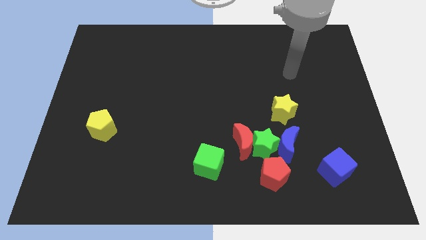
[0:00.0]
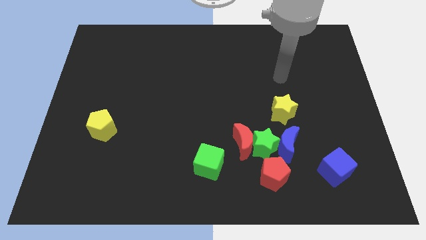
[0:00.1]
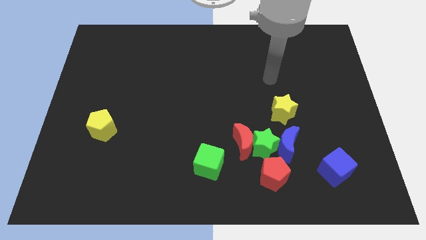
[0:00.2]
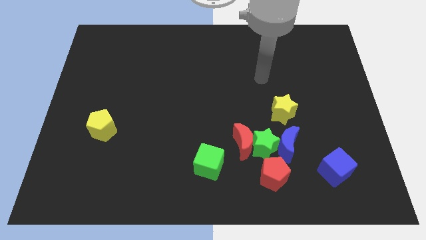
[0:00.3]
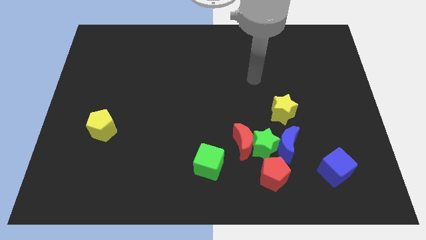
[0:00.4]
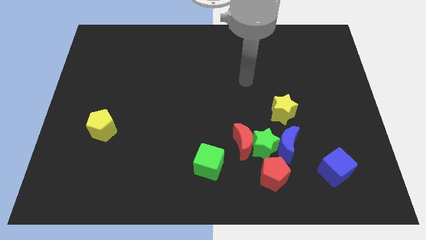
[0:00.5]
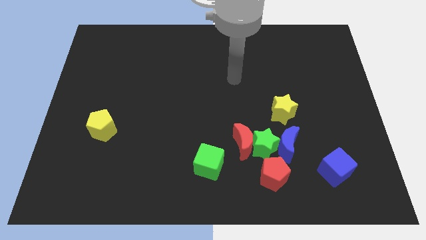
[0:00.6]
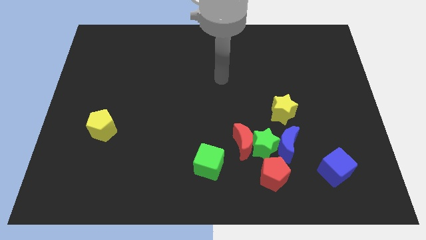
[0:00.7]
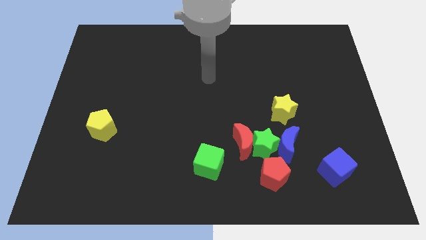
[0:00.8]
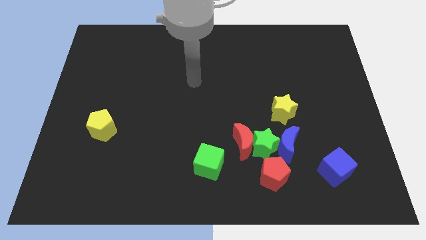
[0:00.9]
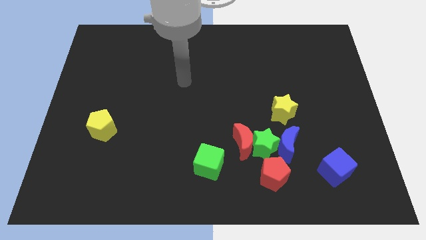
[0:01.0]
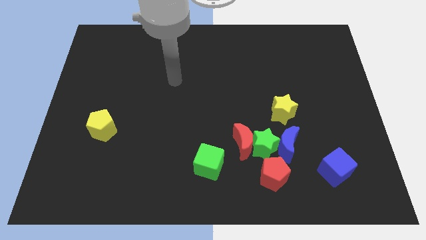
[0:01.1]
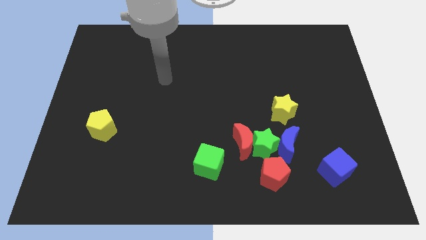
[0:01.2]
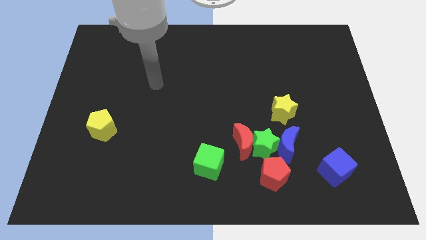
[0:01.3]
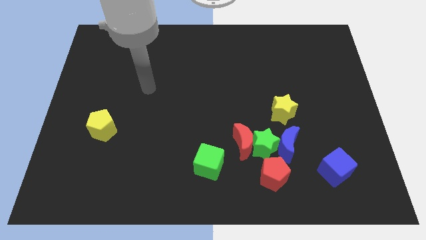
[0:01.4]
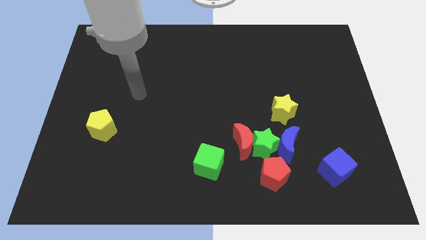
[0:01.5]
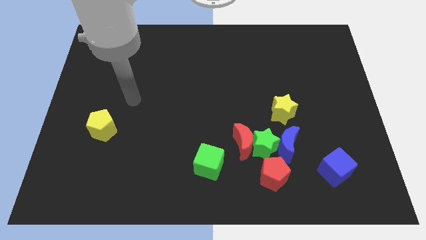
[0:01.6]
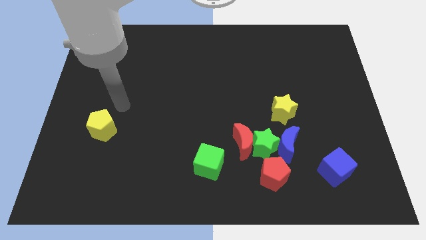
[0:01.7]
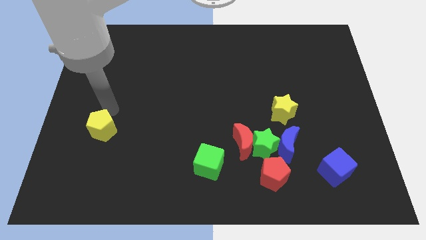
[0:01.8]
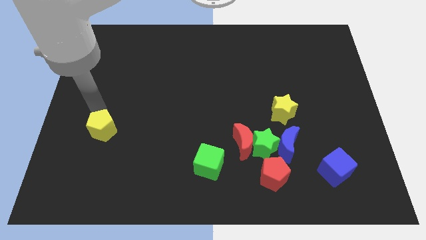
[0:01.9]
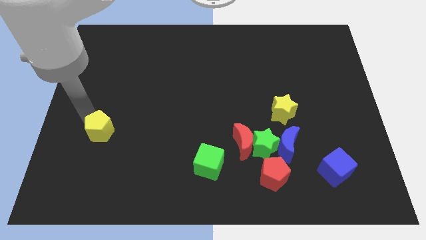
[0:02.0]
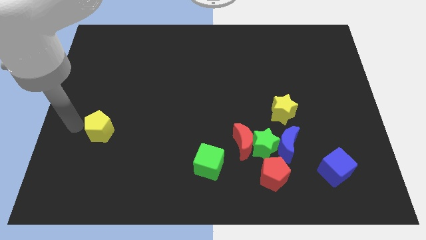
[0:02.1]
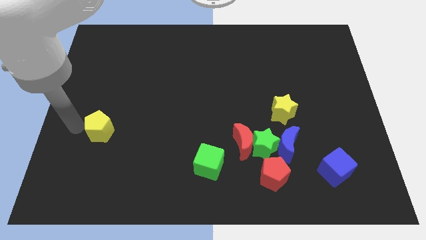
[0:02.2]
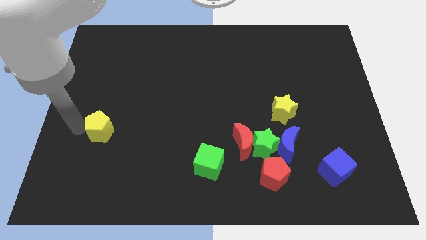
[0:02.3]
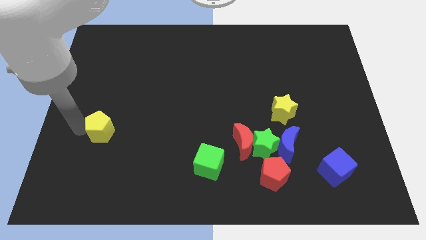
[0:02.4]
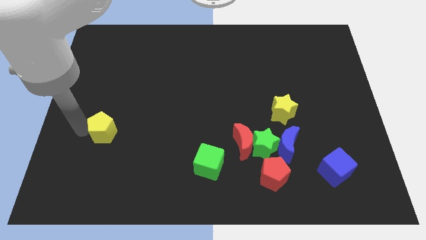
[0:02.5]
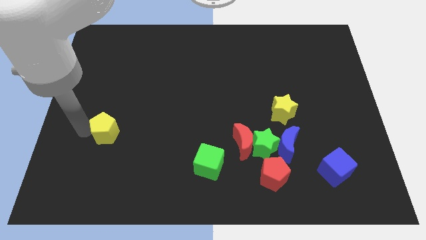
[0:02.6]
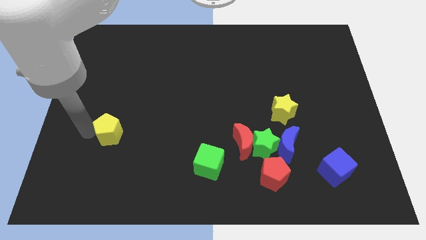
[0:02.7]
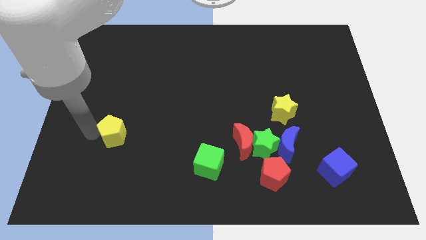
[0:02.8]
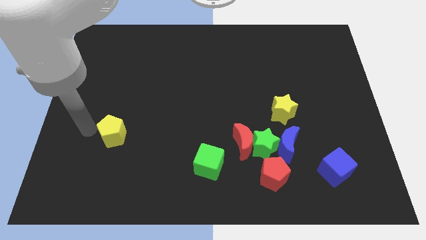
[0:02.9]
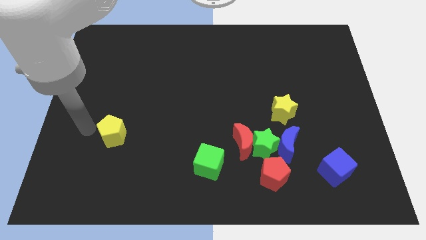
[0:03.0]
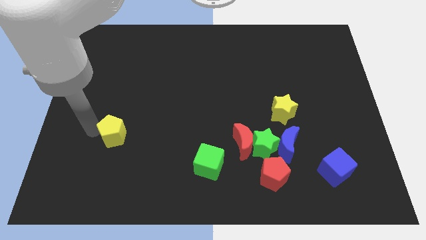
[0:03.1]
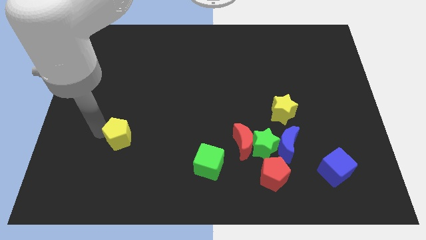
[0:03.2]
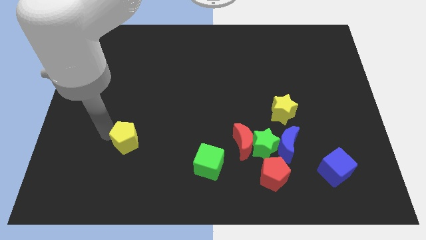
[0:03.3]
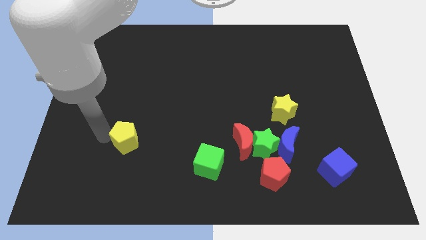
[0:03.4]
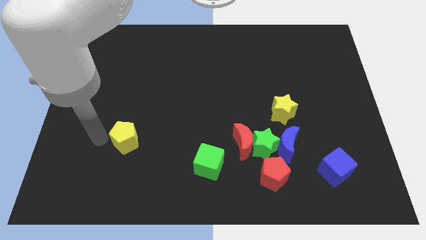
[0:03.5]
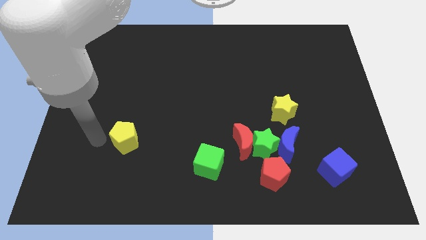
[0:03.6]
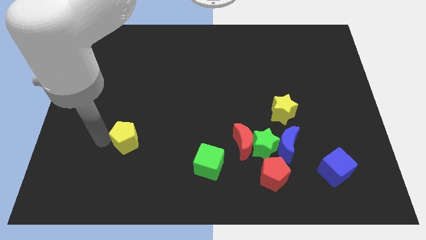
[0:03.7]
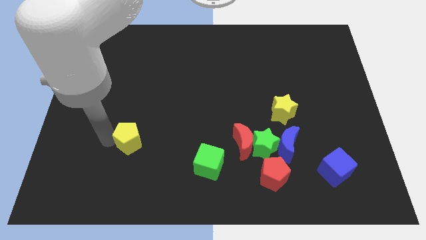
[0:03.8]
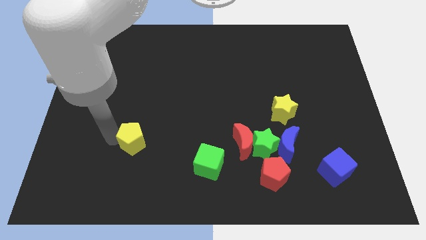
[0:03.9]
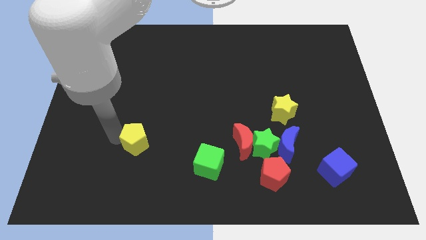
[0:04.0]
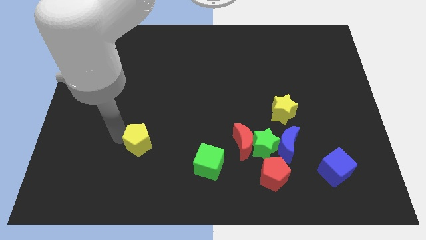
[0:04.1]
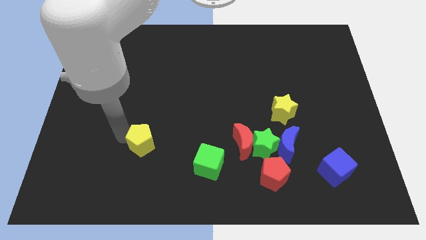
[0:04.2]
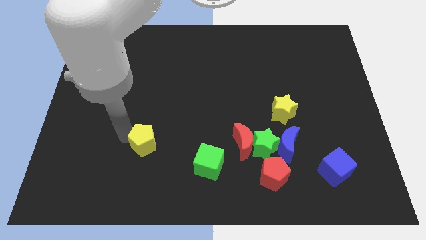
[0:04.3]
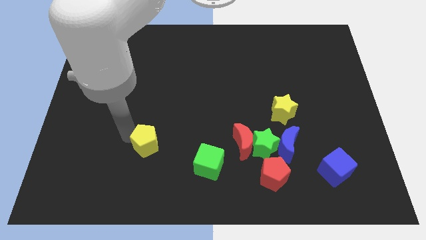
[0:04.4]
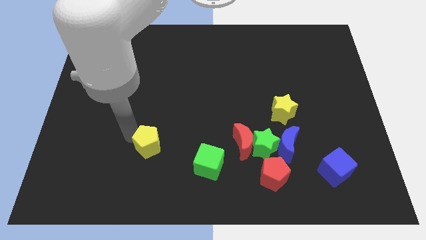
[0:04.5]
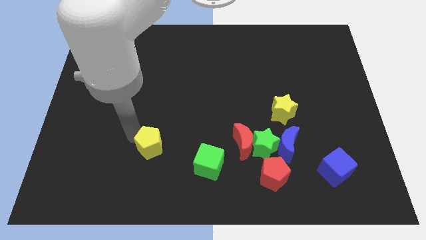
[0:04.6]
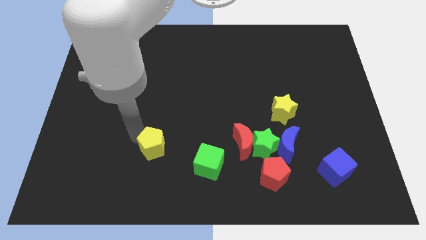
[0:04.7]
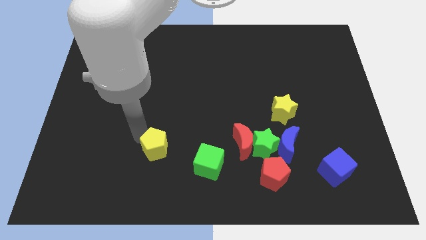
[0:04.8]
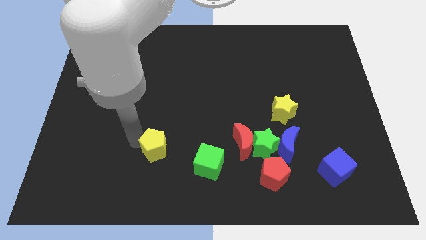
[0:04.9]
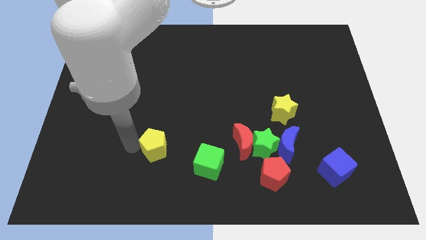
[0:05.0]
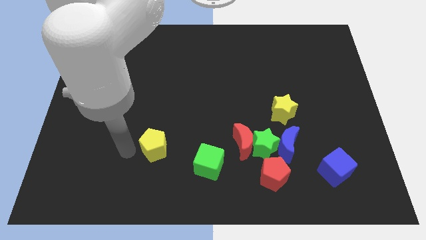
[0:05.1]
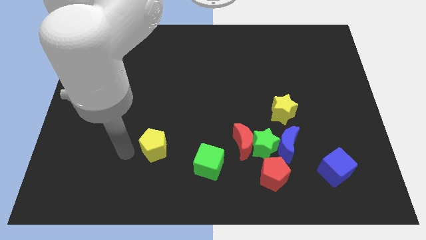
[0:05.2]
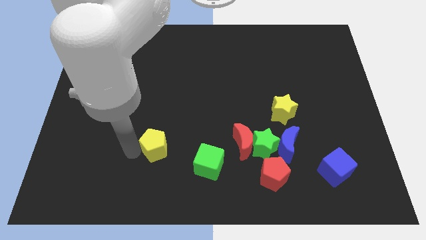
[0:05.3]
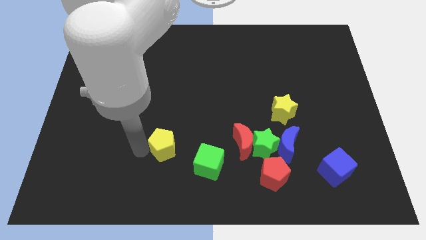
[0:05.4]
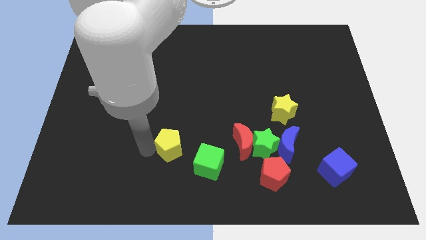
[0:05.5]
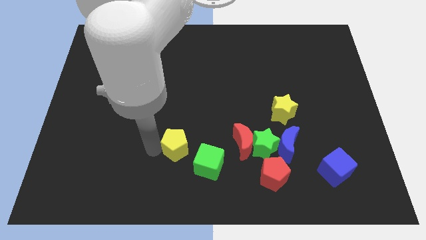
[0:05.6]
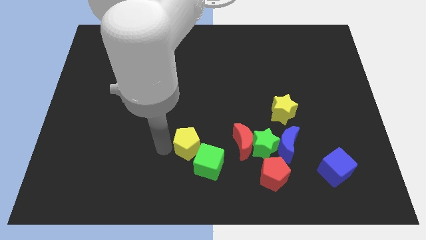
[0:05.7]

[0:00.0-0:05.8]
put the yellow pentagon to the left of the green star

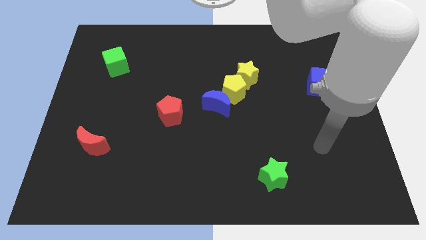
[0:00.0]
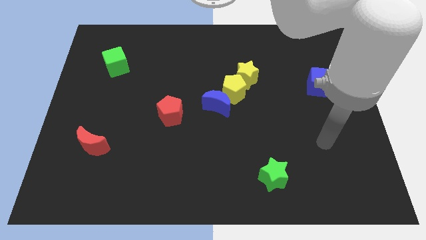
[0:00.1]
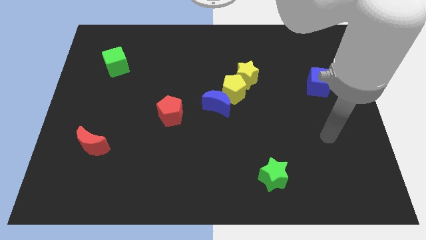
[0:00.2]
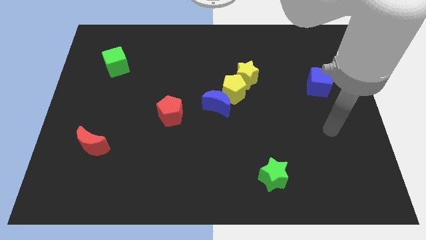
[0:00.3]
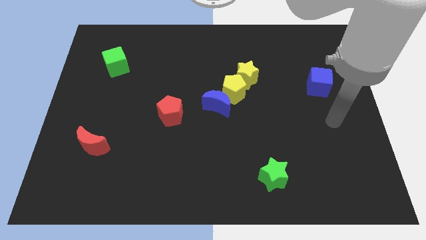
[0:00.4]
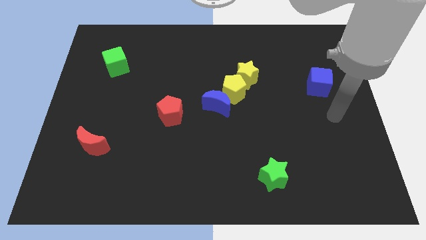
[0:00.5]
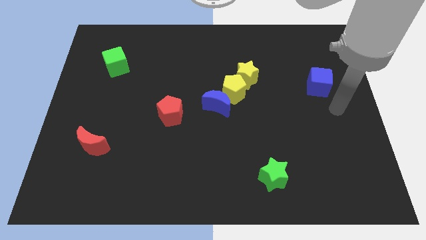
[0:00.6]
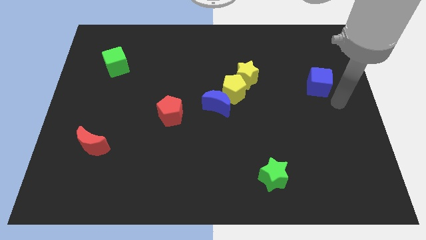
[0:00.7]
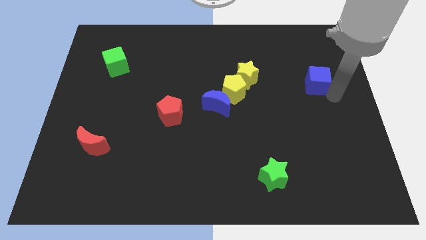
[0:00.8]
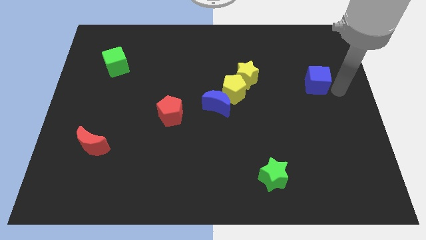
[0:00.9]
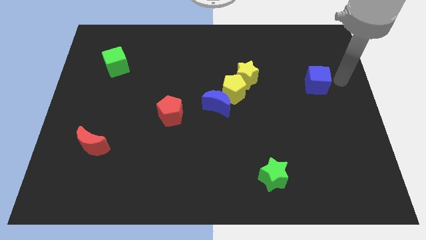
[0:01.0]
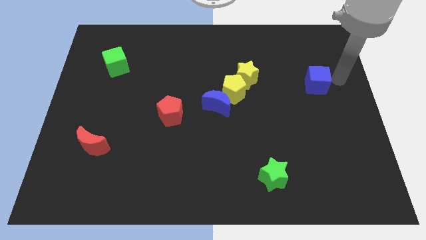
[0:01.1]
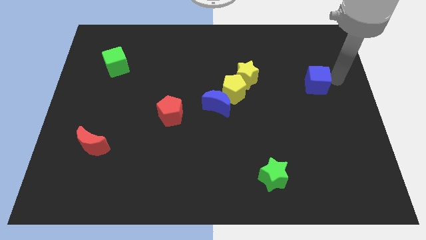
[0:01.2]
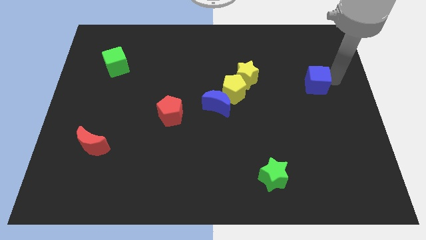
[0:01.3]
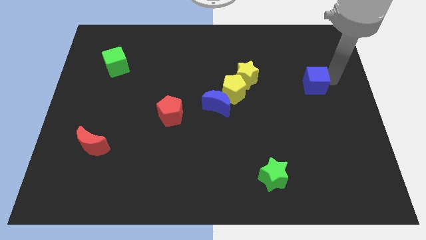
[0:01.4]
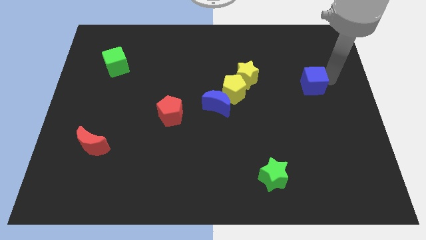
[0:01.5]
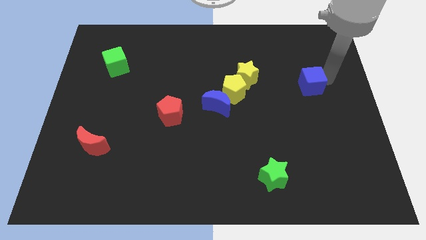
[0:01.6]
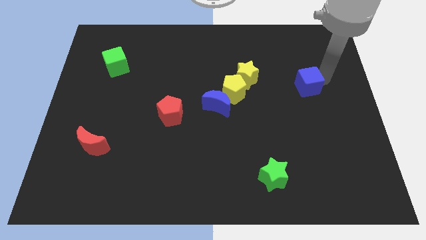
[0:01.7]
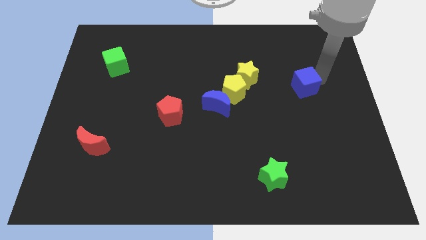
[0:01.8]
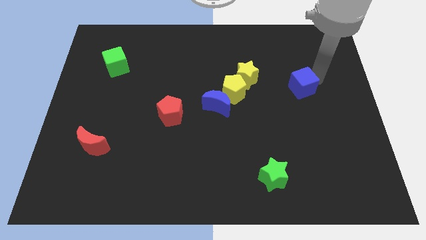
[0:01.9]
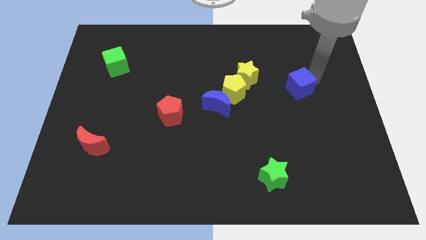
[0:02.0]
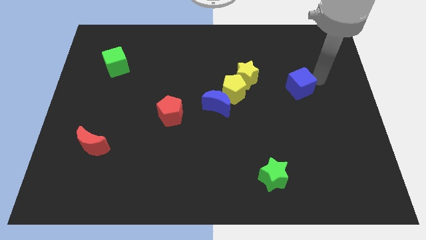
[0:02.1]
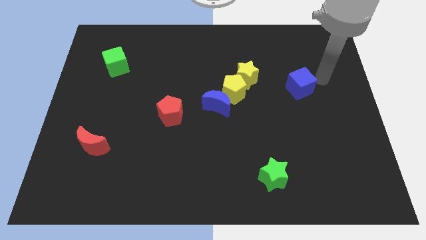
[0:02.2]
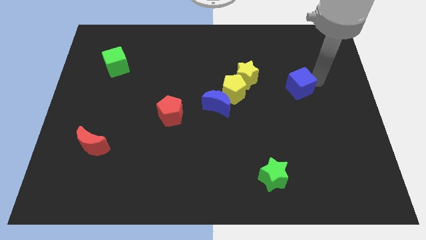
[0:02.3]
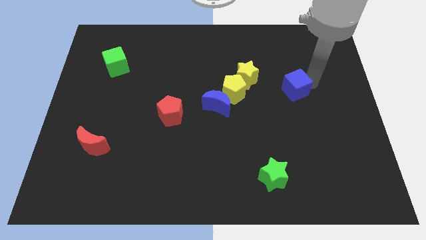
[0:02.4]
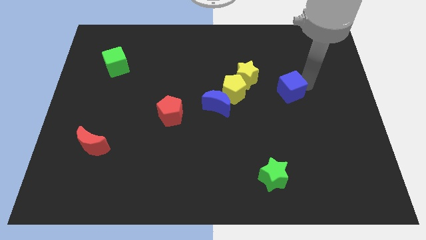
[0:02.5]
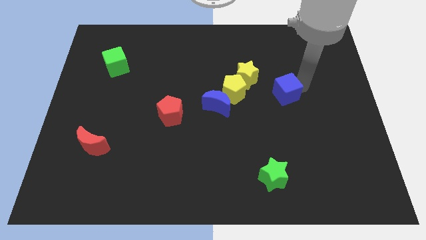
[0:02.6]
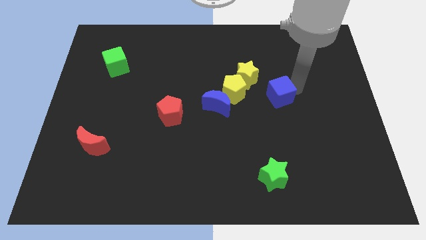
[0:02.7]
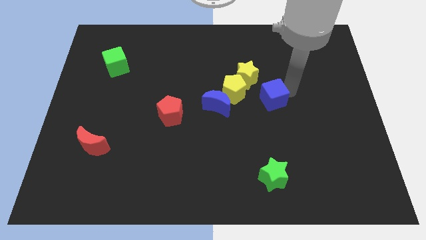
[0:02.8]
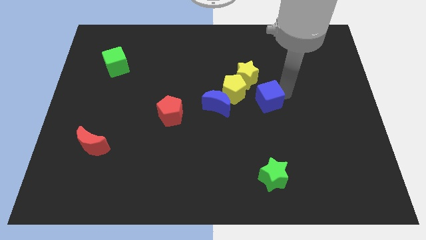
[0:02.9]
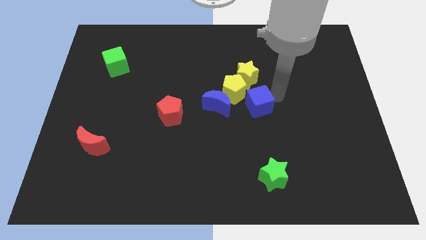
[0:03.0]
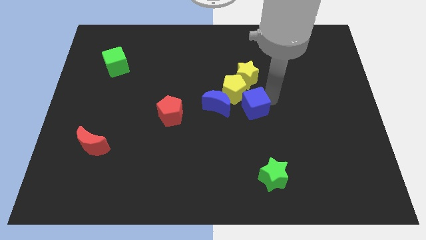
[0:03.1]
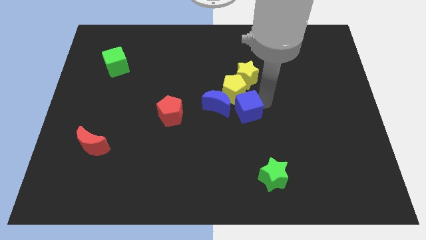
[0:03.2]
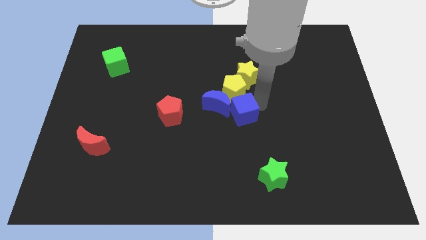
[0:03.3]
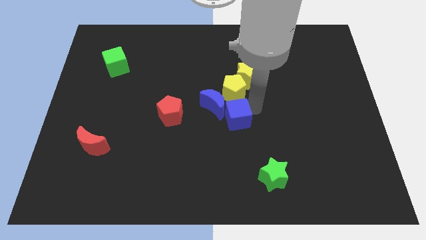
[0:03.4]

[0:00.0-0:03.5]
move the blue cube to the right of the red pentagon
